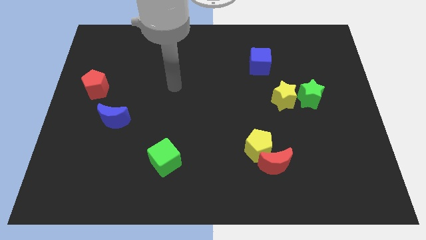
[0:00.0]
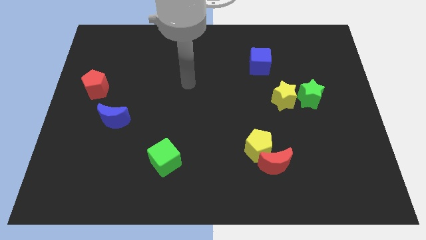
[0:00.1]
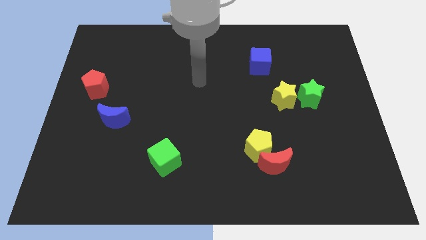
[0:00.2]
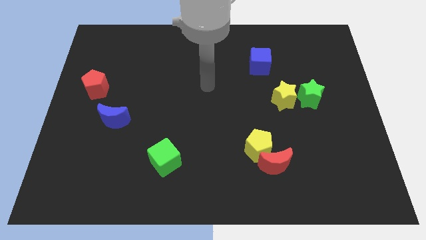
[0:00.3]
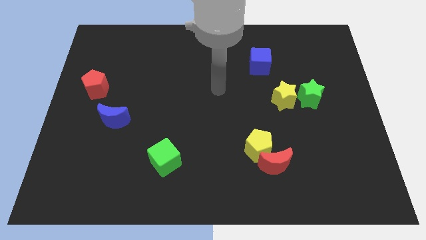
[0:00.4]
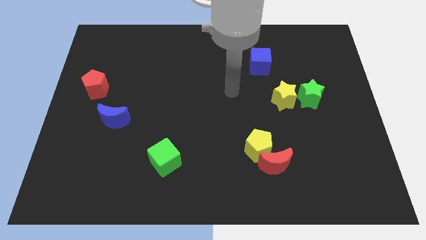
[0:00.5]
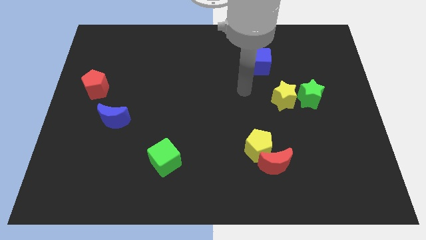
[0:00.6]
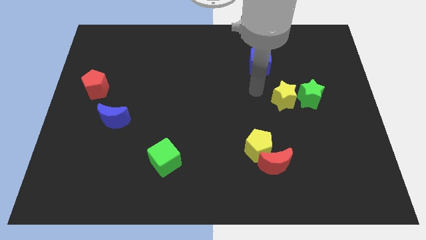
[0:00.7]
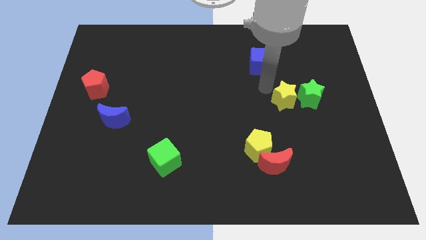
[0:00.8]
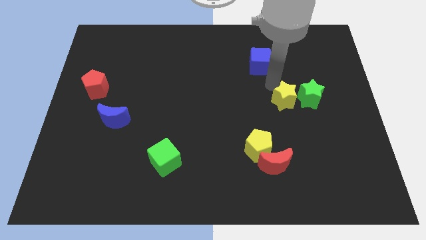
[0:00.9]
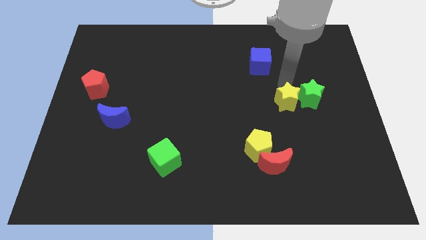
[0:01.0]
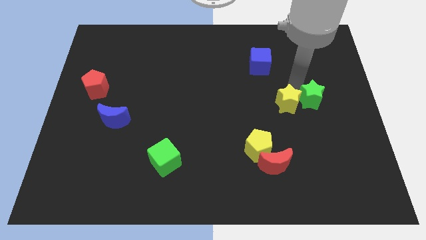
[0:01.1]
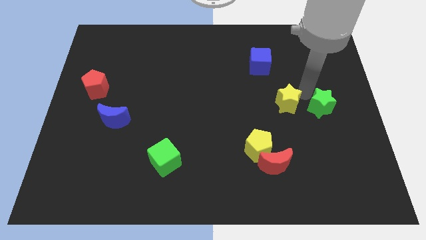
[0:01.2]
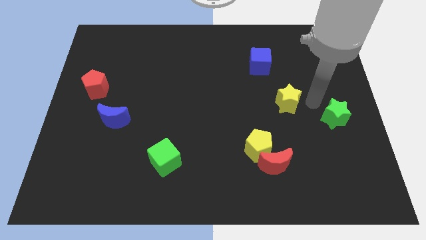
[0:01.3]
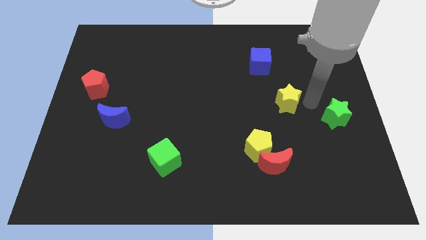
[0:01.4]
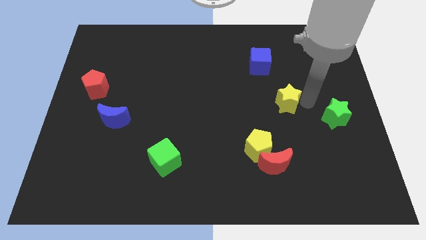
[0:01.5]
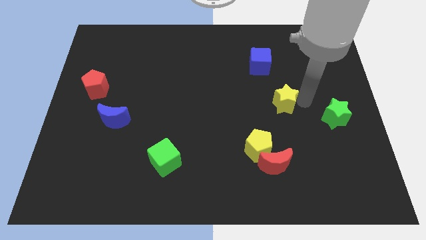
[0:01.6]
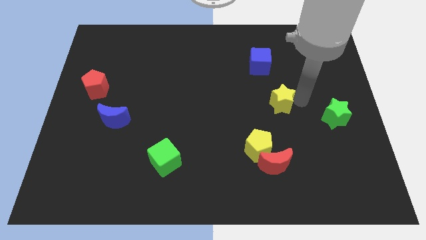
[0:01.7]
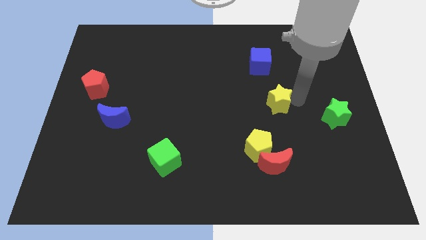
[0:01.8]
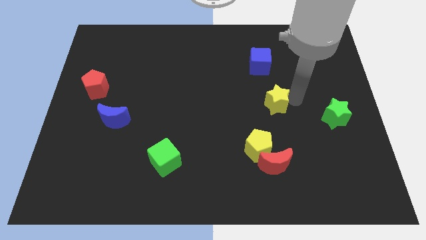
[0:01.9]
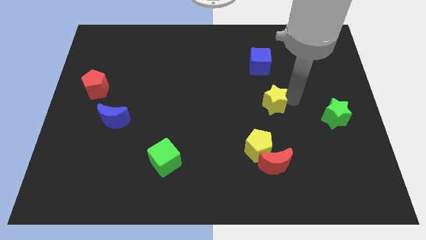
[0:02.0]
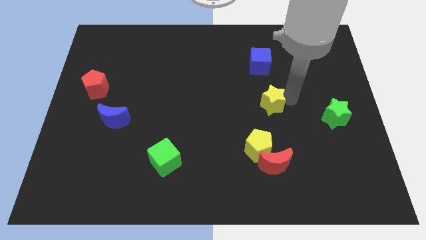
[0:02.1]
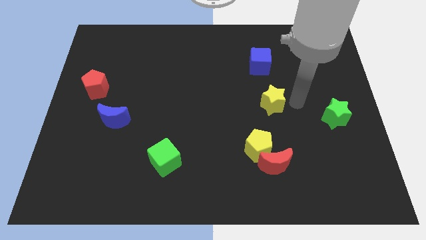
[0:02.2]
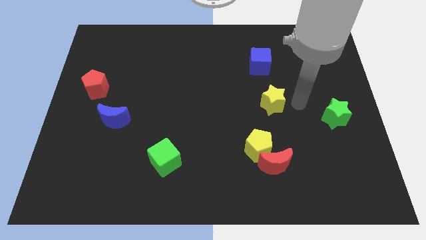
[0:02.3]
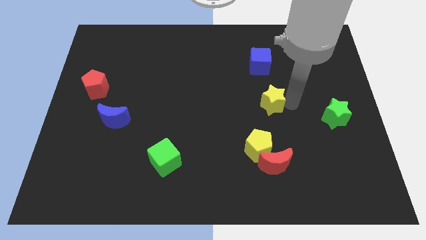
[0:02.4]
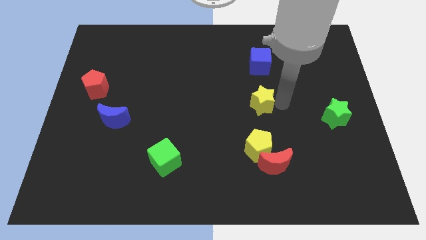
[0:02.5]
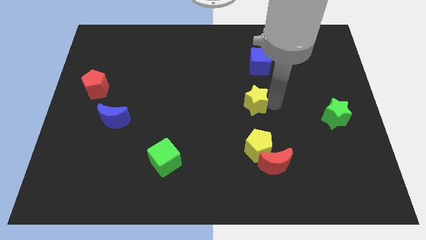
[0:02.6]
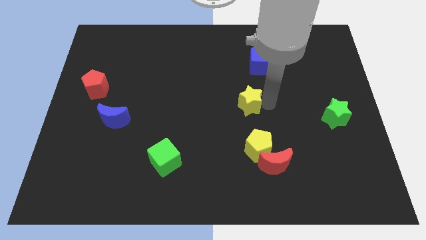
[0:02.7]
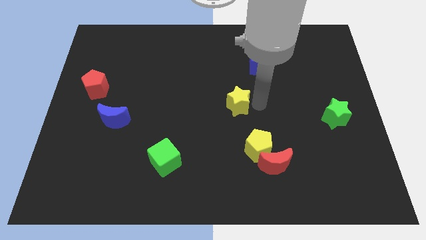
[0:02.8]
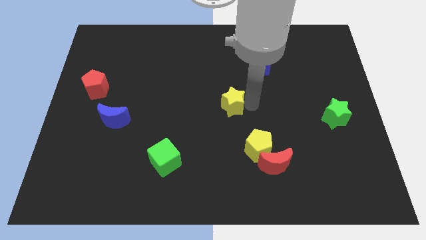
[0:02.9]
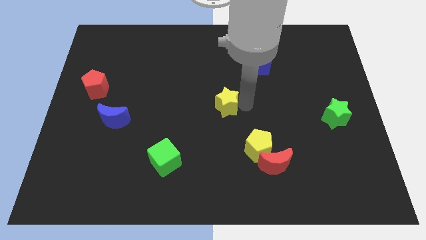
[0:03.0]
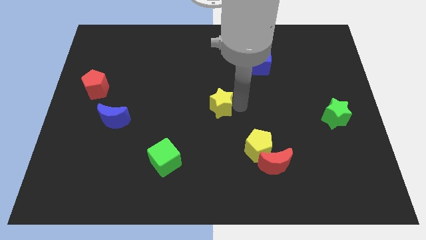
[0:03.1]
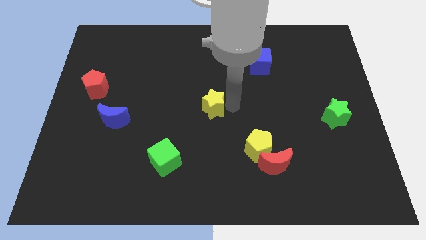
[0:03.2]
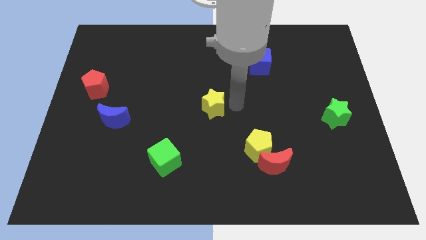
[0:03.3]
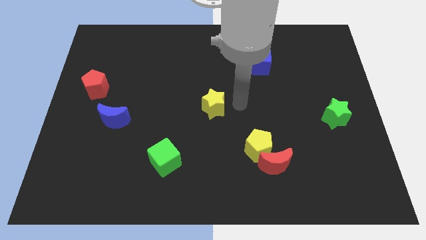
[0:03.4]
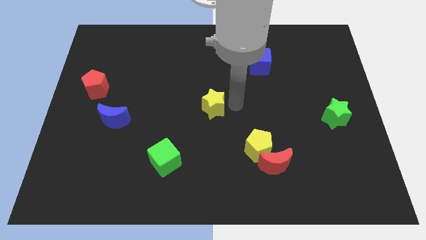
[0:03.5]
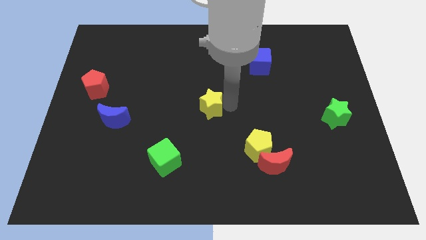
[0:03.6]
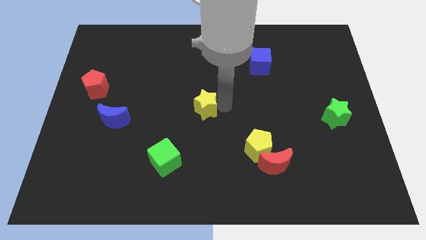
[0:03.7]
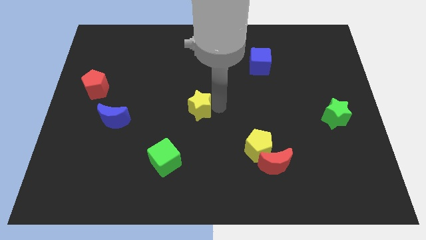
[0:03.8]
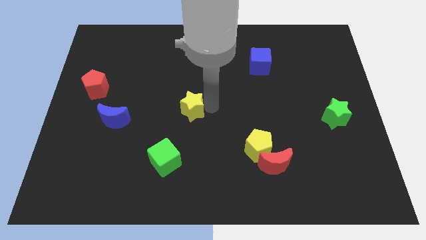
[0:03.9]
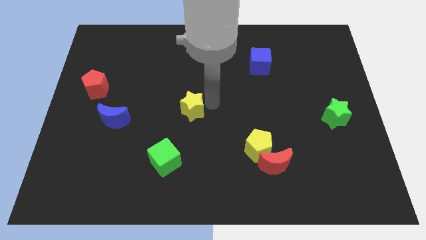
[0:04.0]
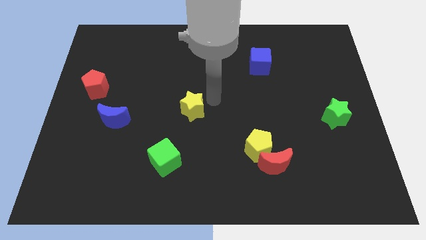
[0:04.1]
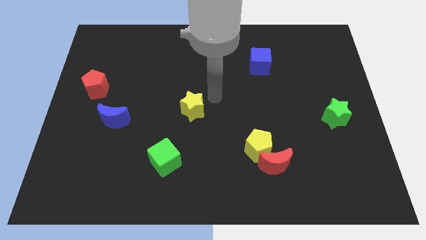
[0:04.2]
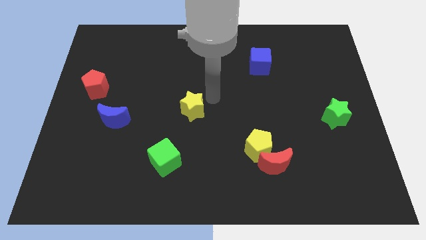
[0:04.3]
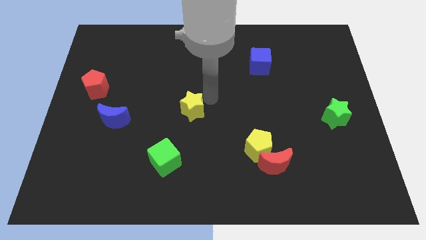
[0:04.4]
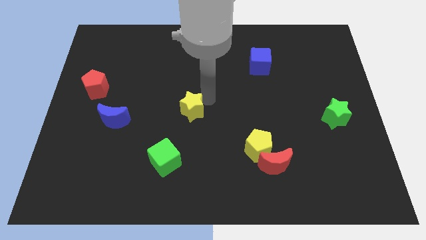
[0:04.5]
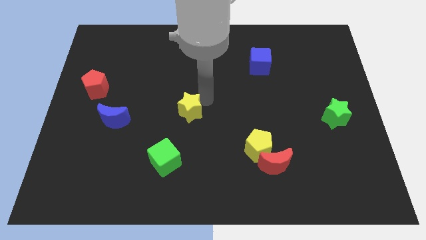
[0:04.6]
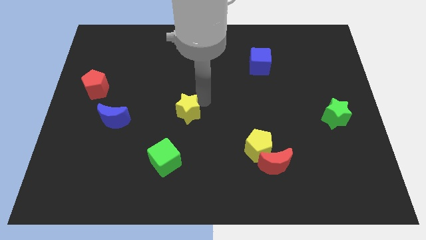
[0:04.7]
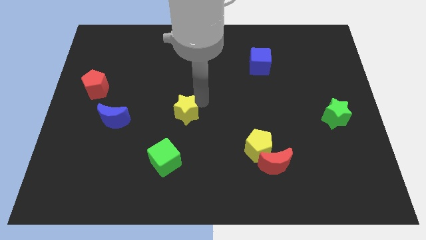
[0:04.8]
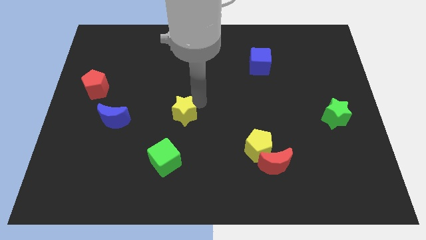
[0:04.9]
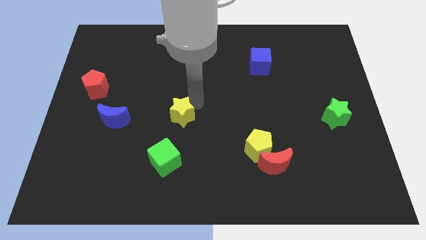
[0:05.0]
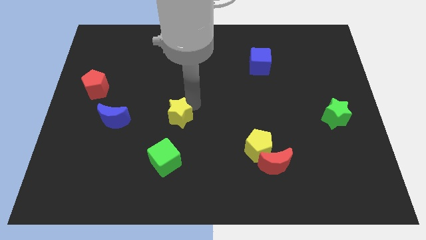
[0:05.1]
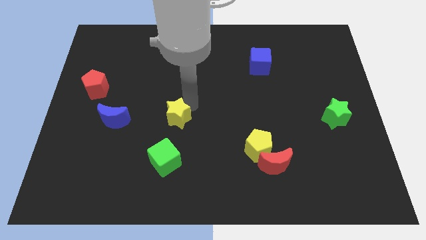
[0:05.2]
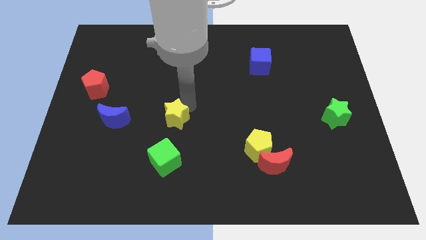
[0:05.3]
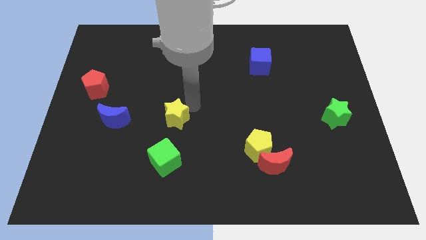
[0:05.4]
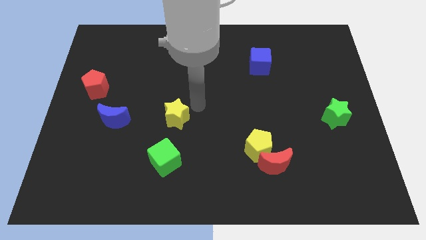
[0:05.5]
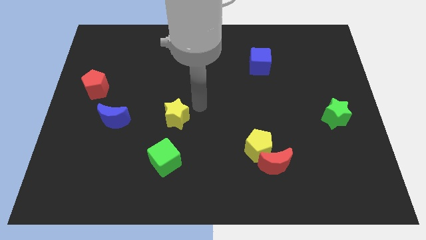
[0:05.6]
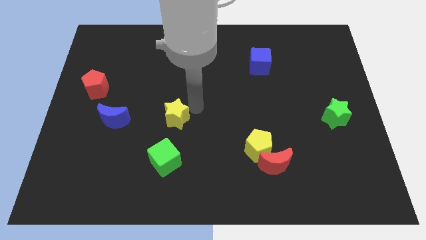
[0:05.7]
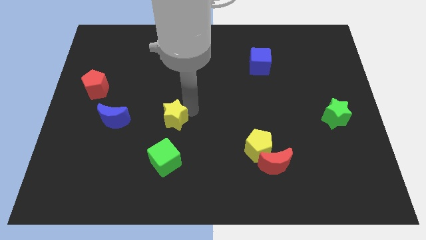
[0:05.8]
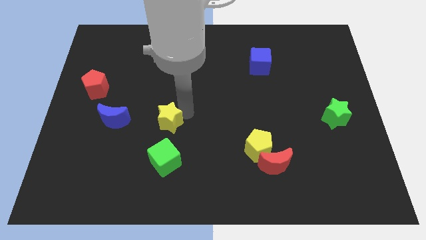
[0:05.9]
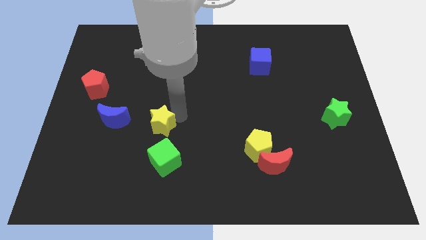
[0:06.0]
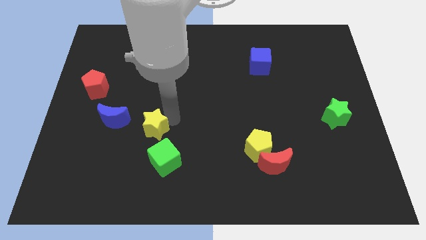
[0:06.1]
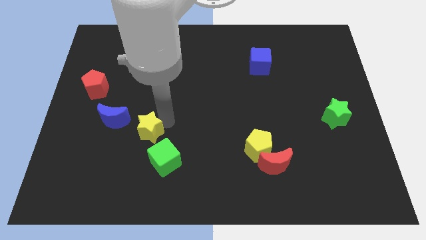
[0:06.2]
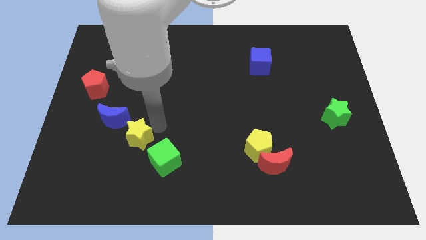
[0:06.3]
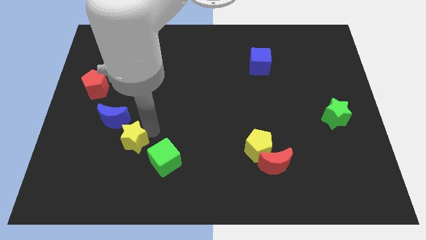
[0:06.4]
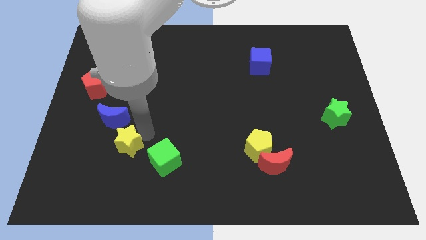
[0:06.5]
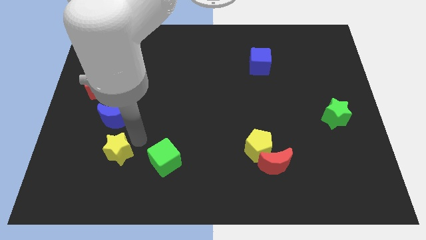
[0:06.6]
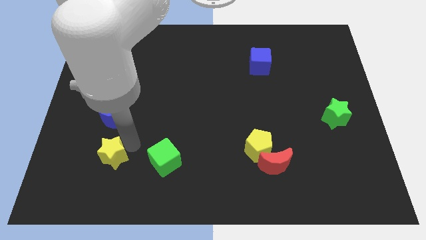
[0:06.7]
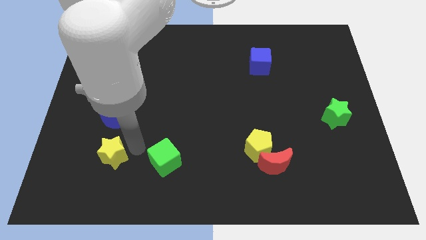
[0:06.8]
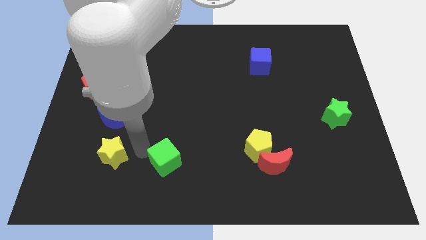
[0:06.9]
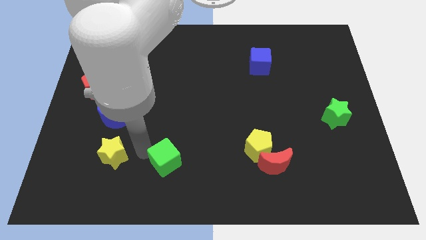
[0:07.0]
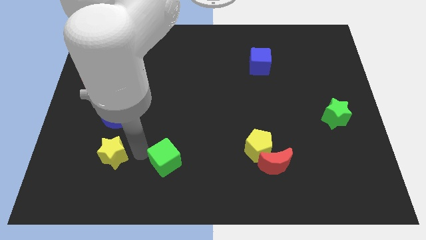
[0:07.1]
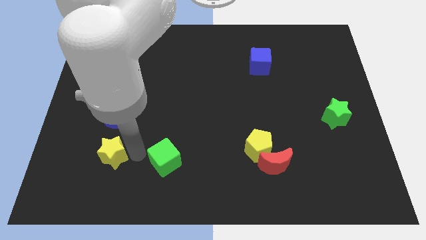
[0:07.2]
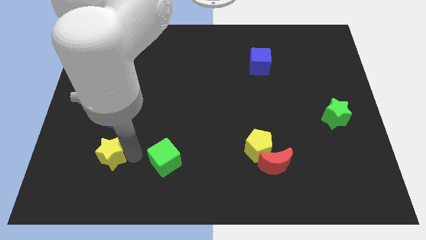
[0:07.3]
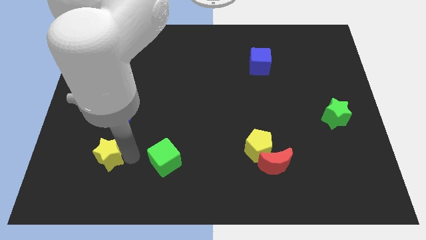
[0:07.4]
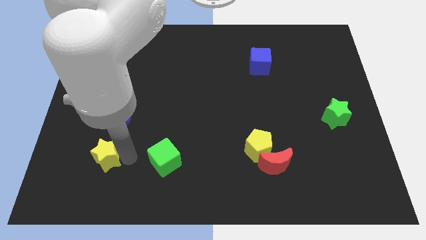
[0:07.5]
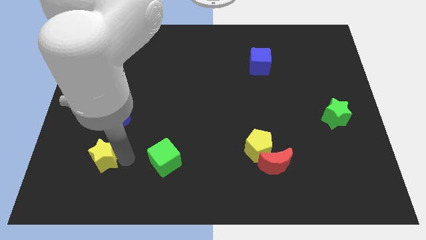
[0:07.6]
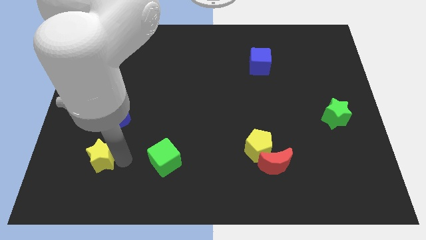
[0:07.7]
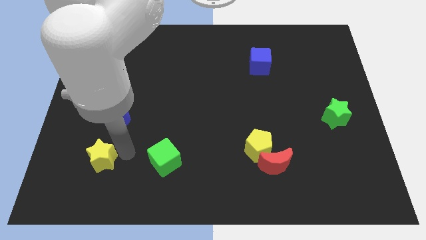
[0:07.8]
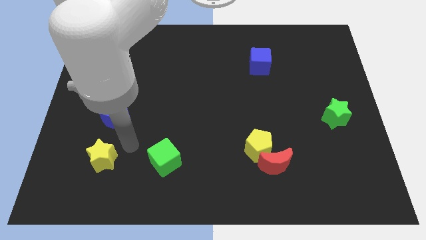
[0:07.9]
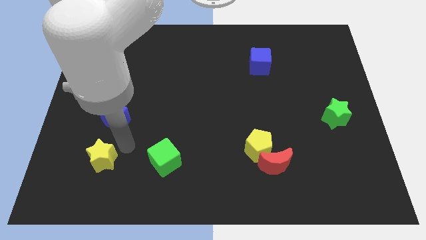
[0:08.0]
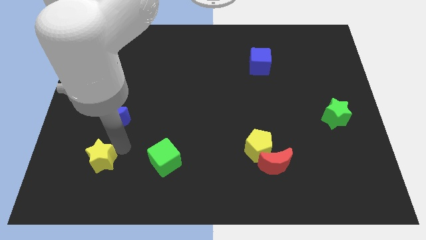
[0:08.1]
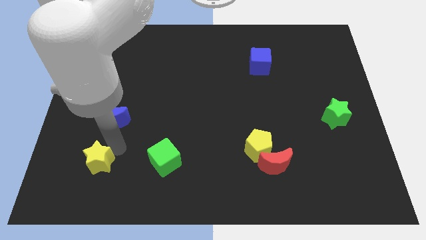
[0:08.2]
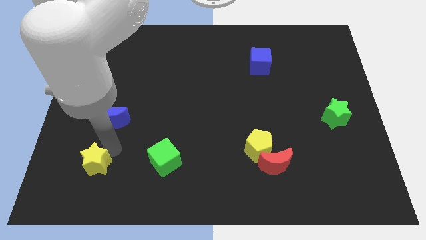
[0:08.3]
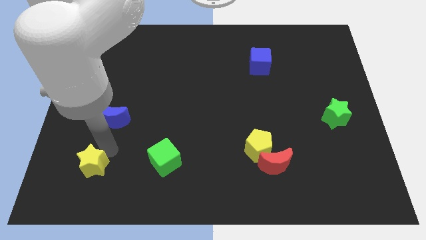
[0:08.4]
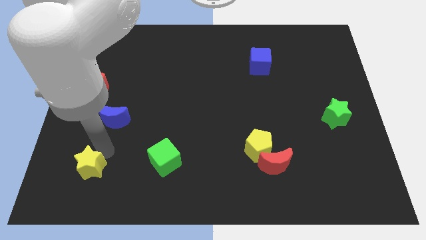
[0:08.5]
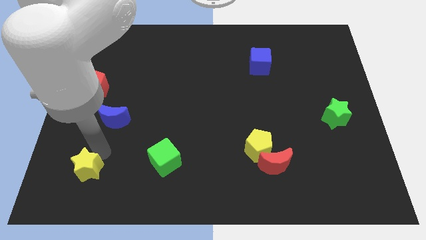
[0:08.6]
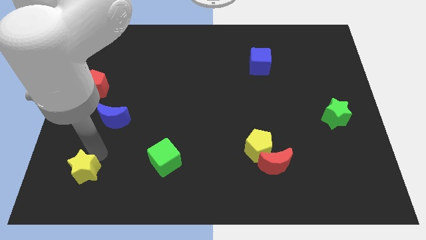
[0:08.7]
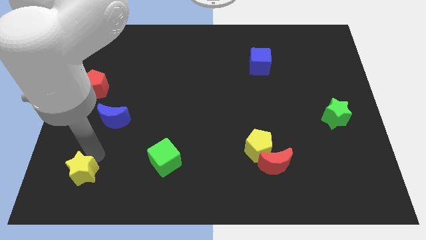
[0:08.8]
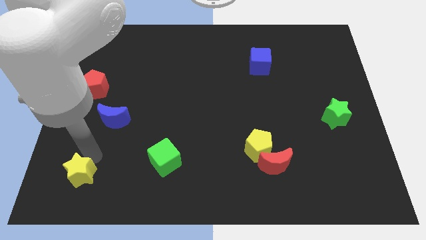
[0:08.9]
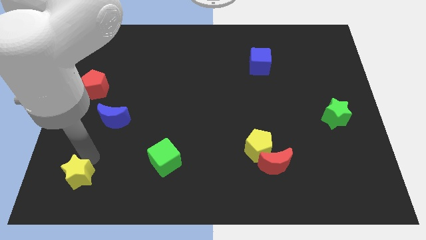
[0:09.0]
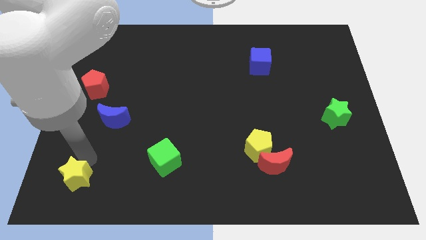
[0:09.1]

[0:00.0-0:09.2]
put the yellow star to the bottom left corner
